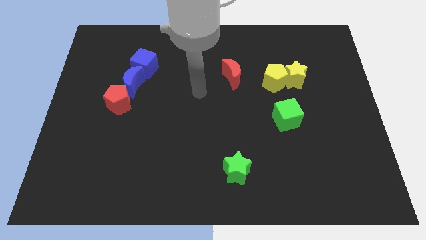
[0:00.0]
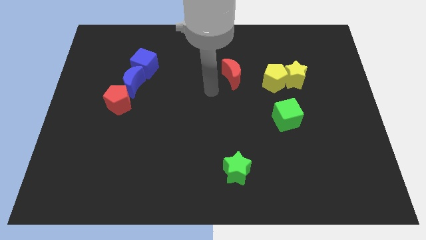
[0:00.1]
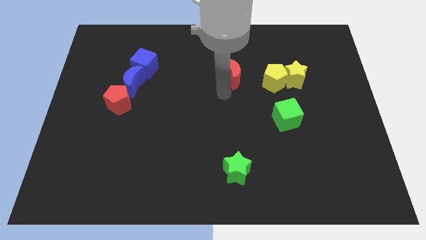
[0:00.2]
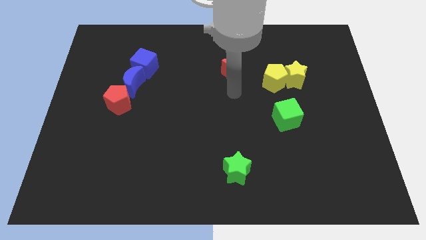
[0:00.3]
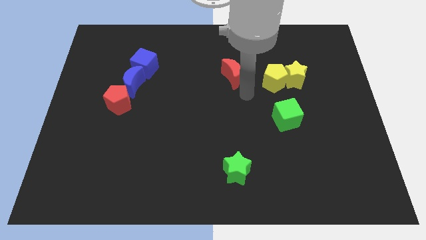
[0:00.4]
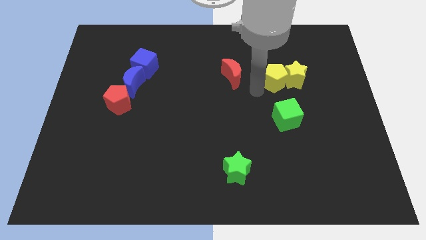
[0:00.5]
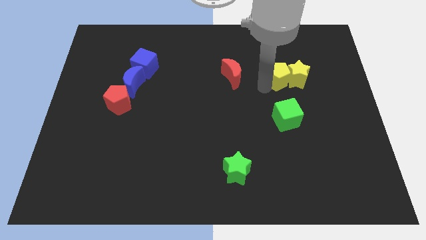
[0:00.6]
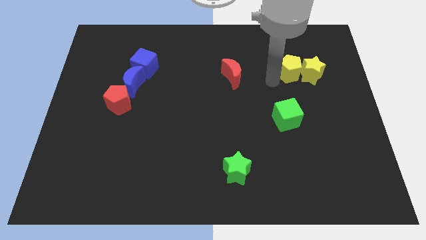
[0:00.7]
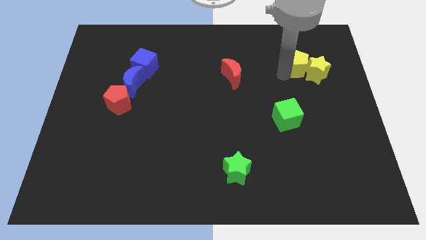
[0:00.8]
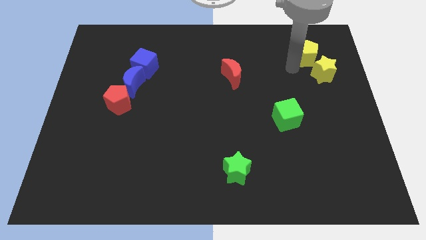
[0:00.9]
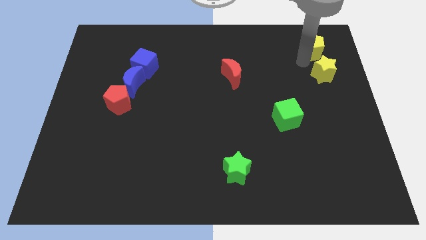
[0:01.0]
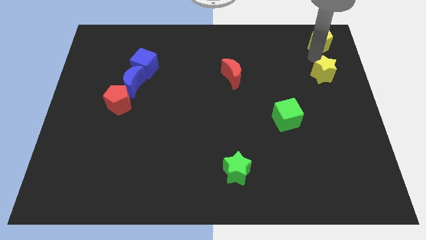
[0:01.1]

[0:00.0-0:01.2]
move the yellow star away from the yellow pentagon

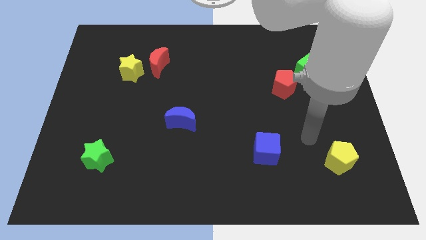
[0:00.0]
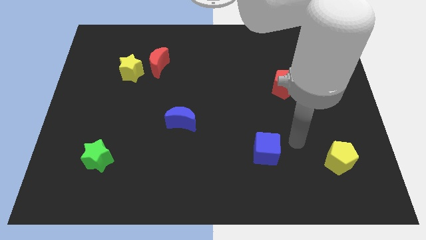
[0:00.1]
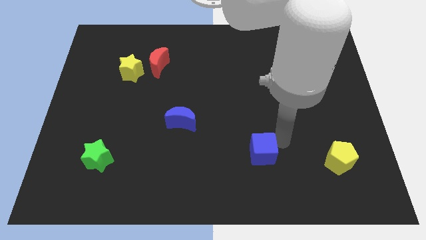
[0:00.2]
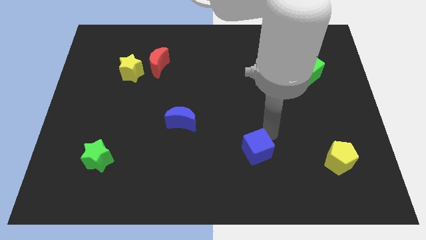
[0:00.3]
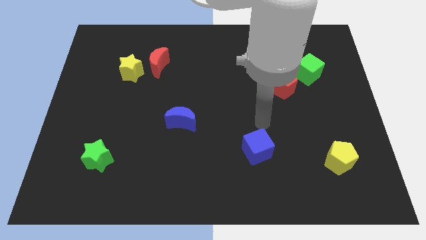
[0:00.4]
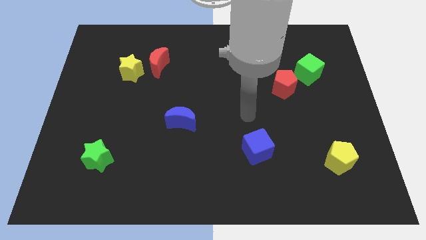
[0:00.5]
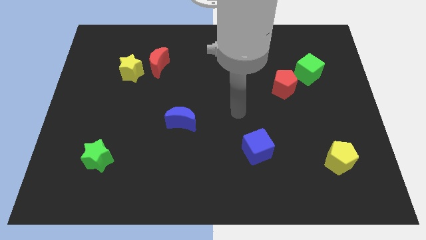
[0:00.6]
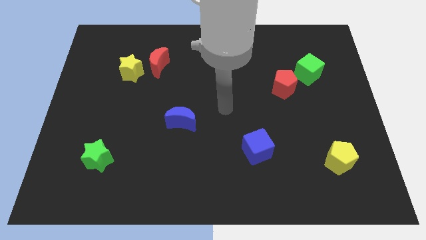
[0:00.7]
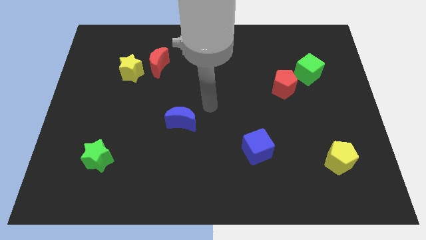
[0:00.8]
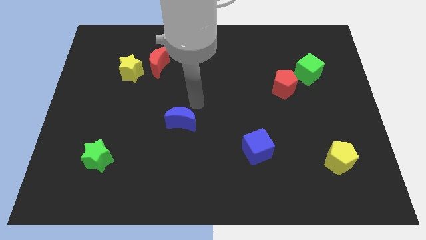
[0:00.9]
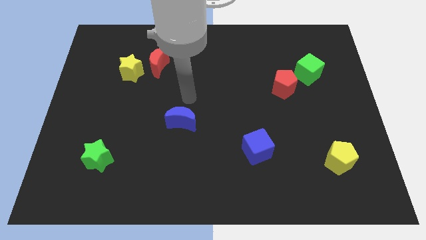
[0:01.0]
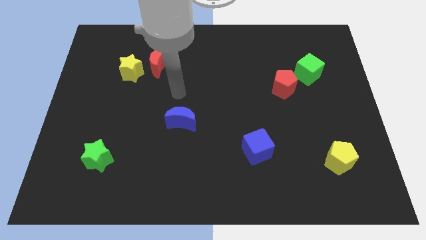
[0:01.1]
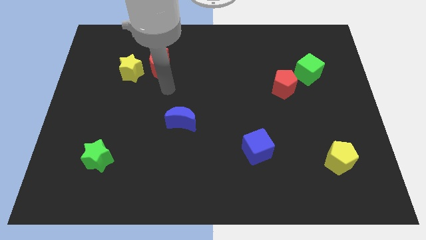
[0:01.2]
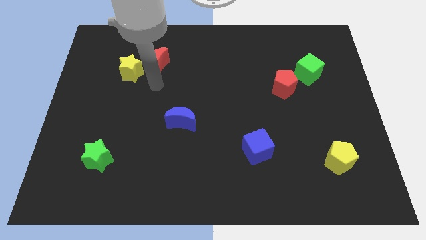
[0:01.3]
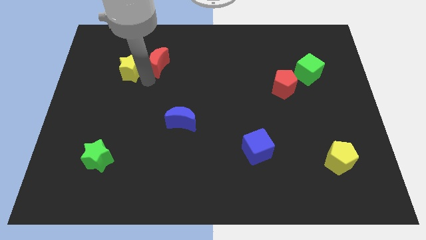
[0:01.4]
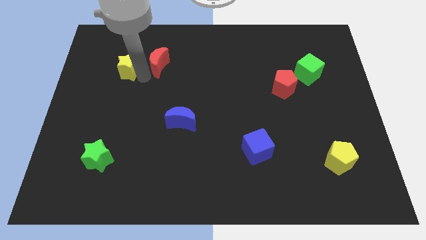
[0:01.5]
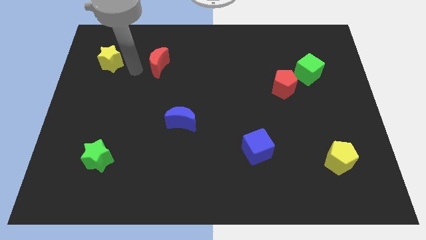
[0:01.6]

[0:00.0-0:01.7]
separate the red moon from the yellow star

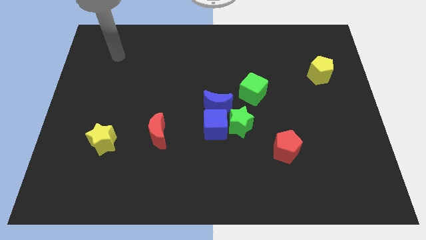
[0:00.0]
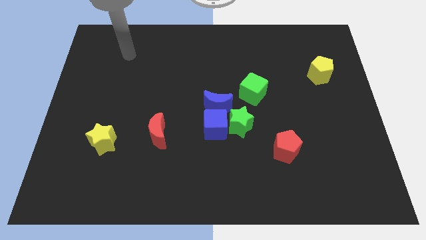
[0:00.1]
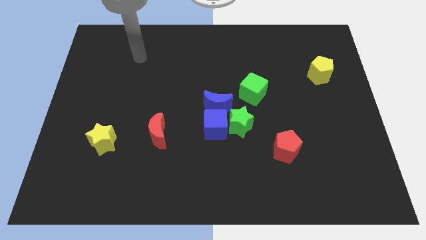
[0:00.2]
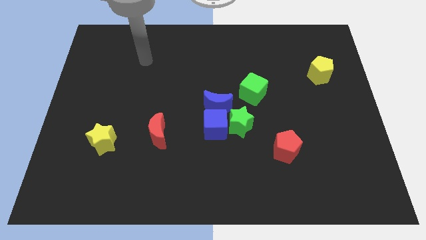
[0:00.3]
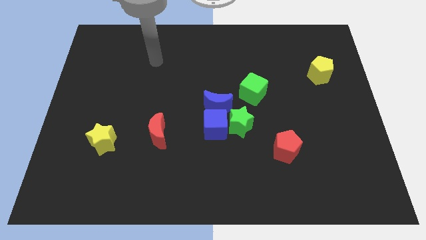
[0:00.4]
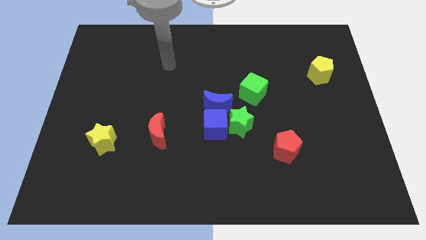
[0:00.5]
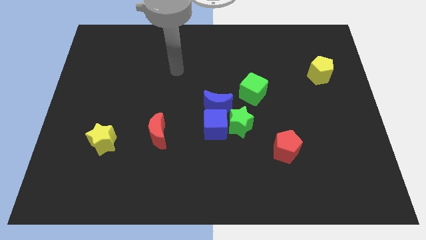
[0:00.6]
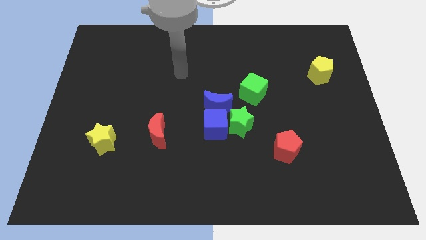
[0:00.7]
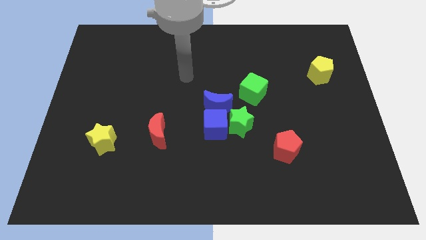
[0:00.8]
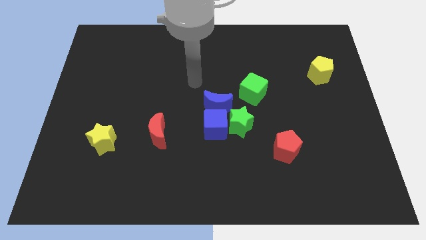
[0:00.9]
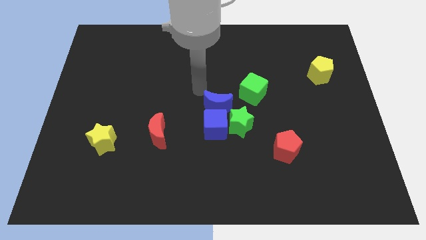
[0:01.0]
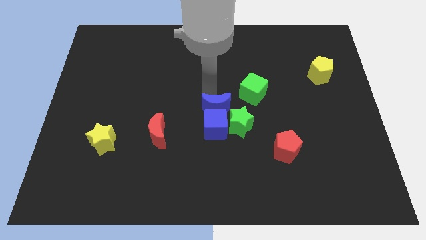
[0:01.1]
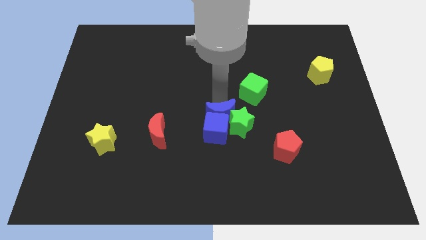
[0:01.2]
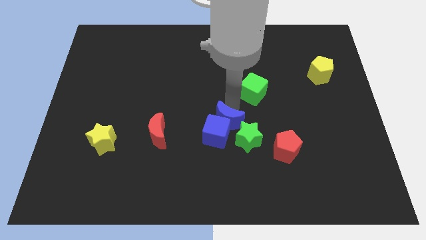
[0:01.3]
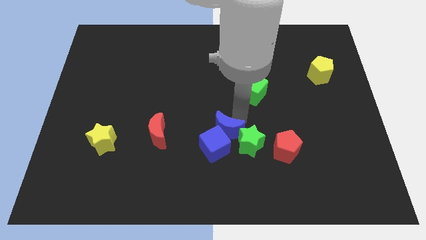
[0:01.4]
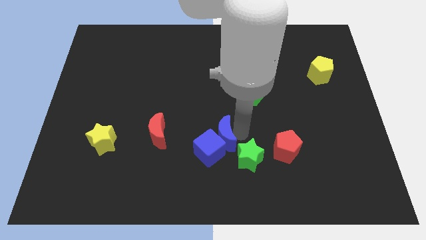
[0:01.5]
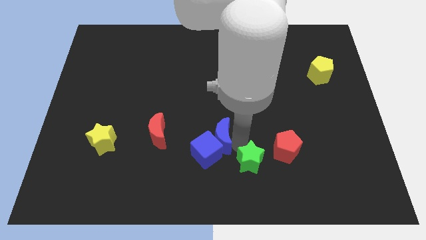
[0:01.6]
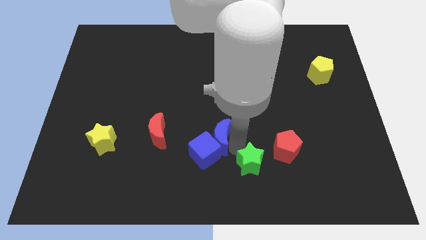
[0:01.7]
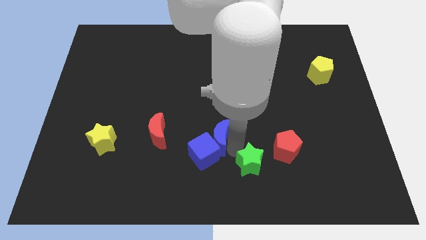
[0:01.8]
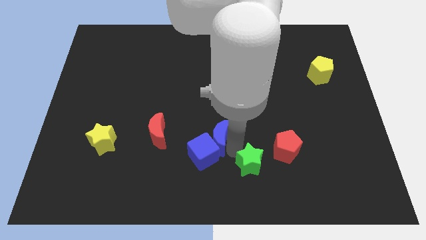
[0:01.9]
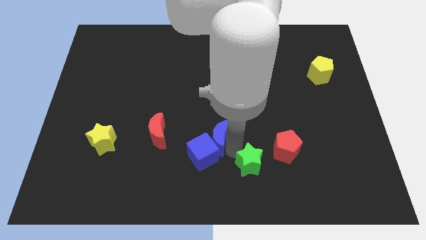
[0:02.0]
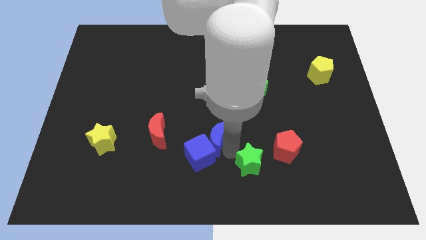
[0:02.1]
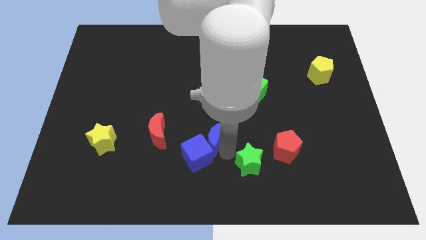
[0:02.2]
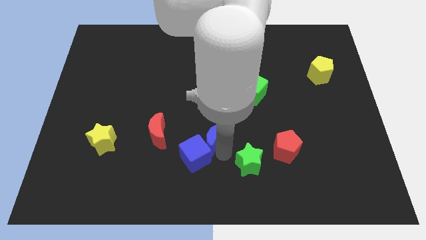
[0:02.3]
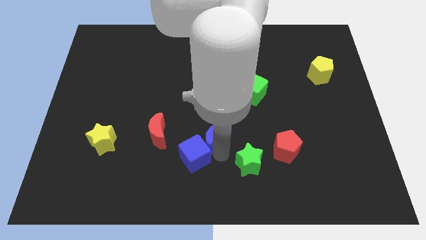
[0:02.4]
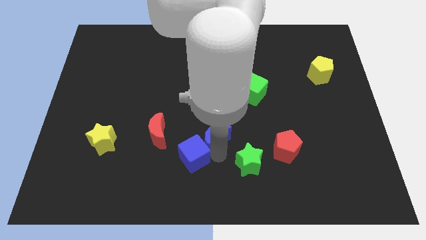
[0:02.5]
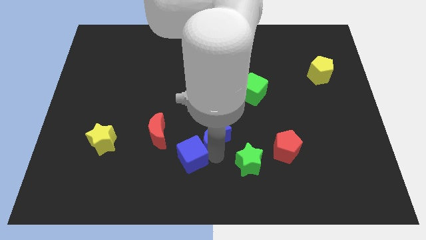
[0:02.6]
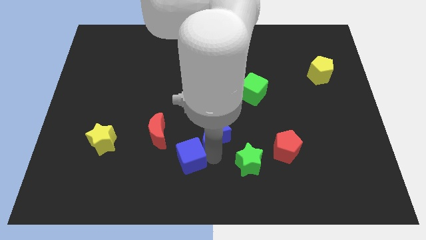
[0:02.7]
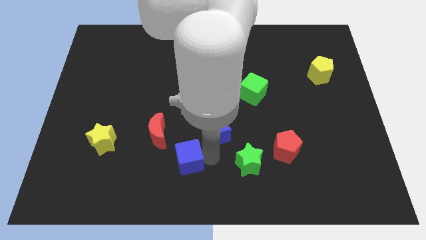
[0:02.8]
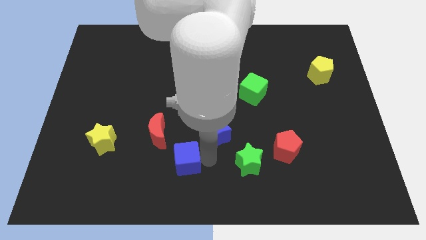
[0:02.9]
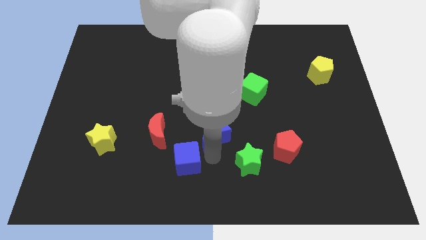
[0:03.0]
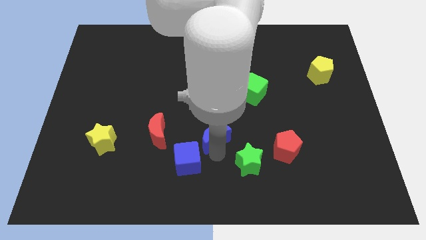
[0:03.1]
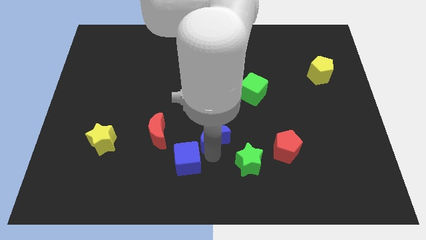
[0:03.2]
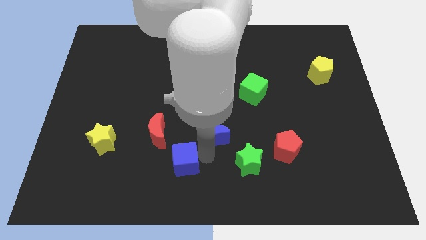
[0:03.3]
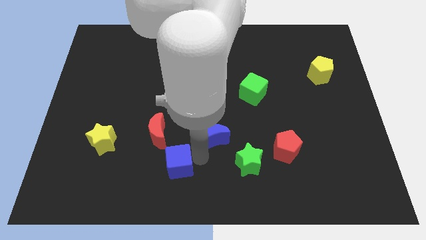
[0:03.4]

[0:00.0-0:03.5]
move the blue cube away from the green star and blue moon

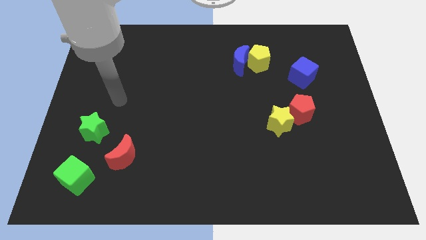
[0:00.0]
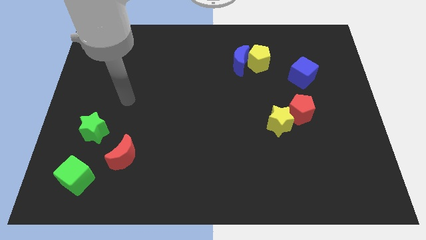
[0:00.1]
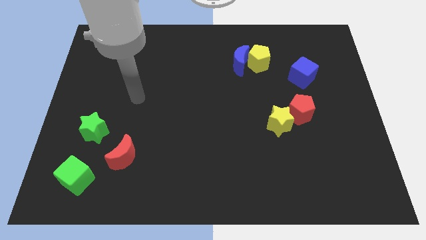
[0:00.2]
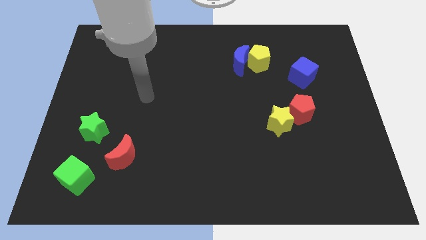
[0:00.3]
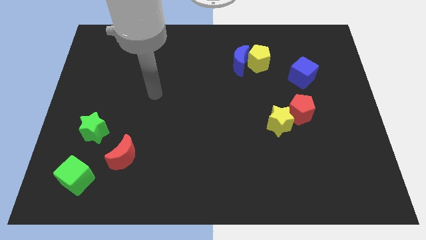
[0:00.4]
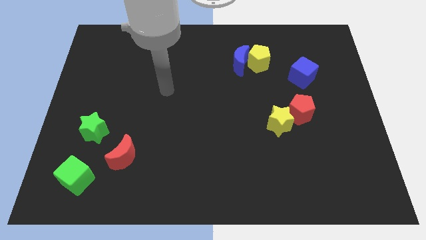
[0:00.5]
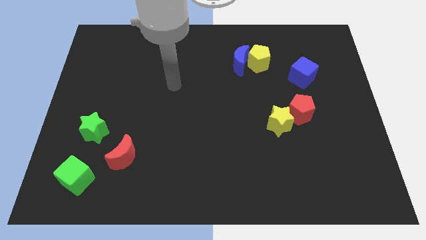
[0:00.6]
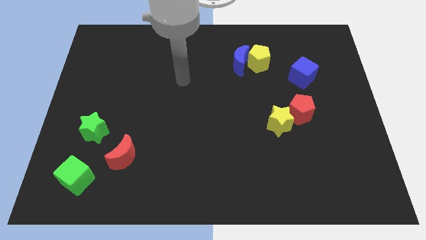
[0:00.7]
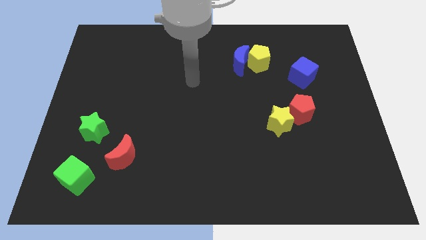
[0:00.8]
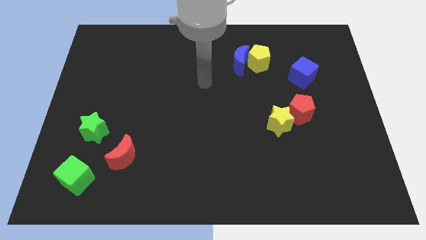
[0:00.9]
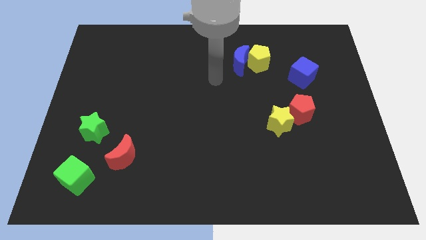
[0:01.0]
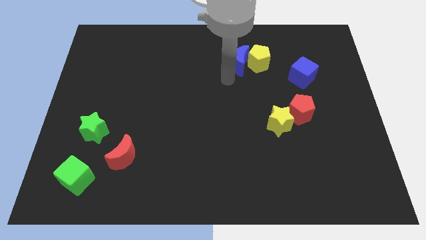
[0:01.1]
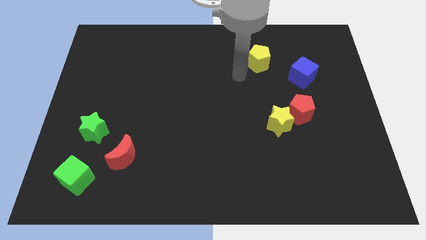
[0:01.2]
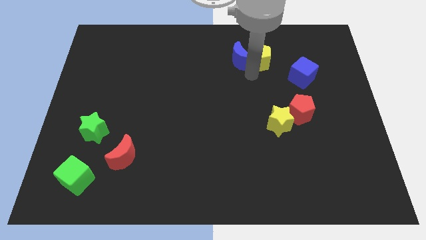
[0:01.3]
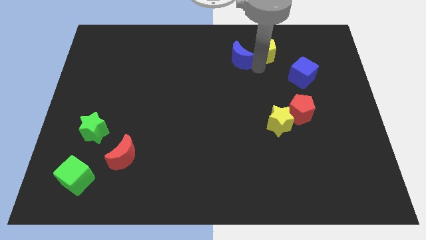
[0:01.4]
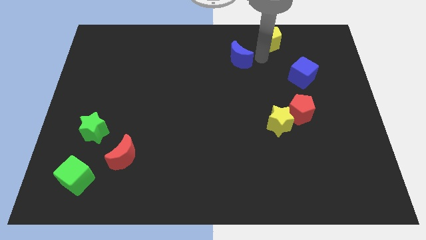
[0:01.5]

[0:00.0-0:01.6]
separate the blue moon from the yellow pentagon

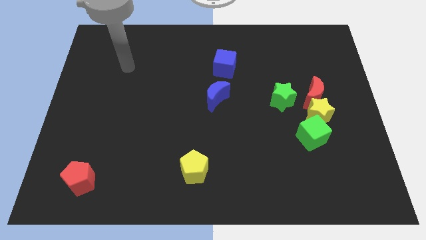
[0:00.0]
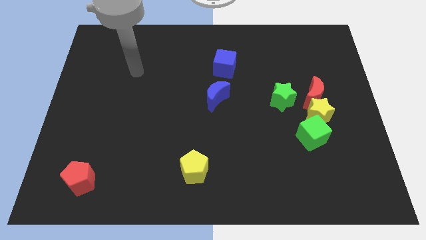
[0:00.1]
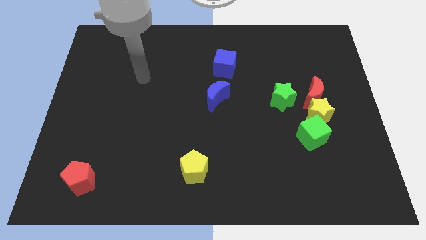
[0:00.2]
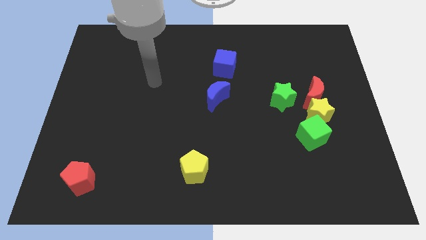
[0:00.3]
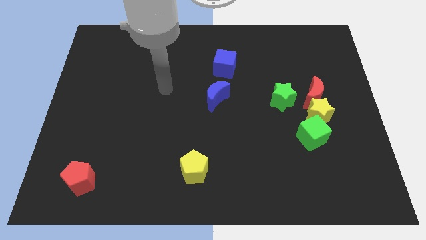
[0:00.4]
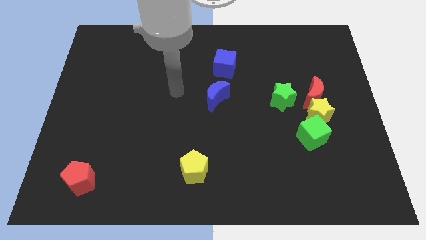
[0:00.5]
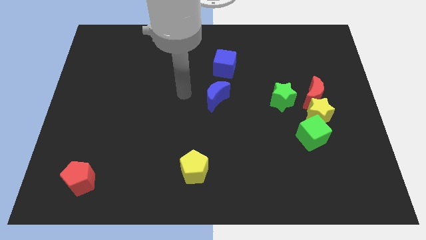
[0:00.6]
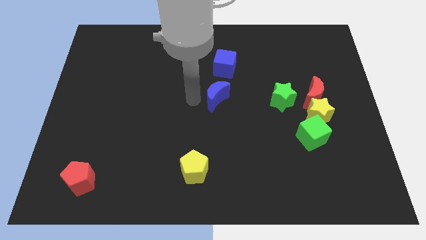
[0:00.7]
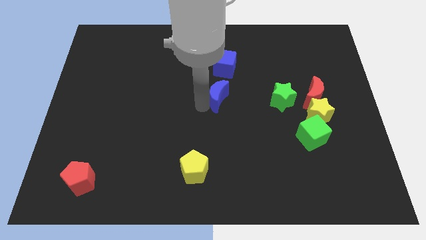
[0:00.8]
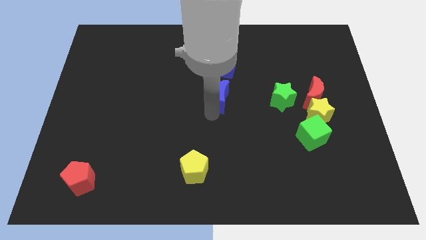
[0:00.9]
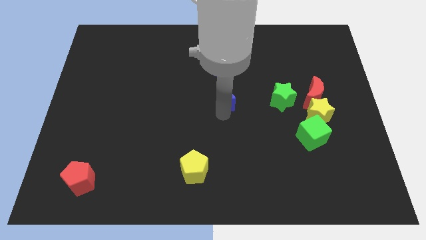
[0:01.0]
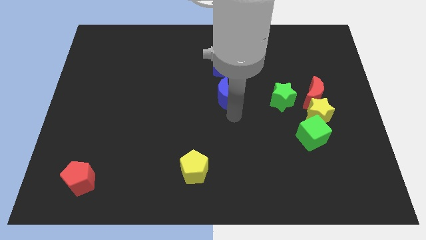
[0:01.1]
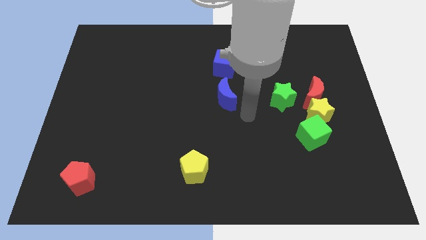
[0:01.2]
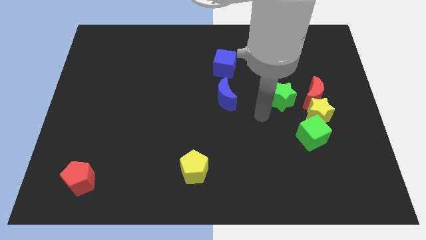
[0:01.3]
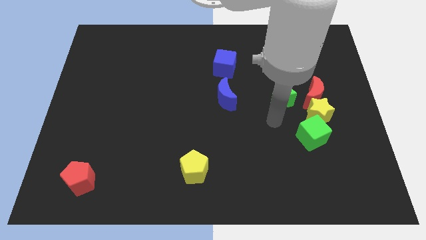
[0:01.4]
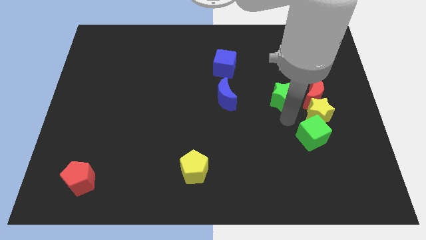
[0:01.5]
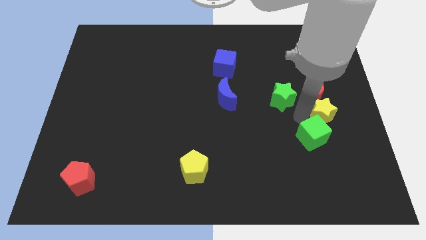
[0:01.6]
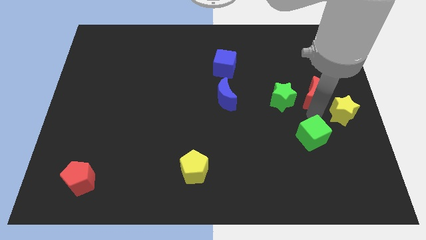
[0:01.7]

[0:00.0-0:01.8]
move the green cube away from the yellow star
